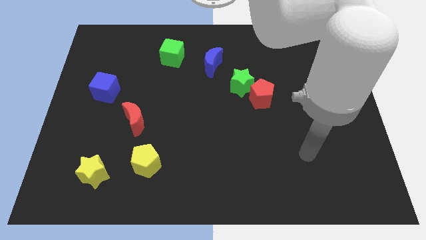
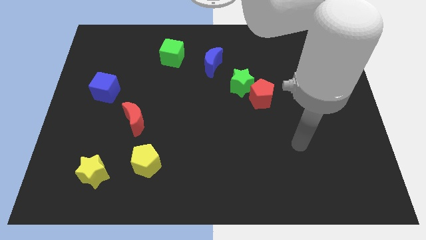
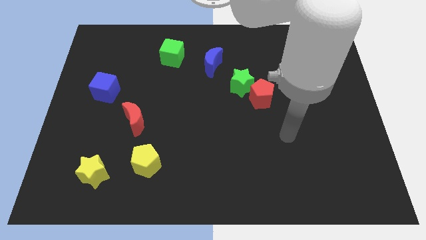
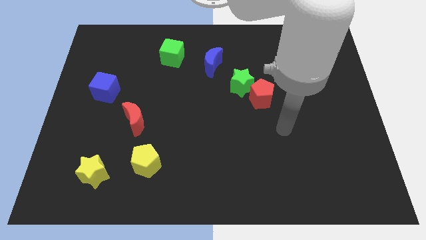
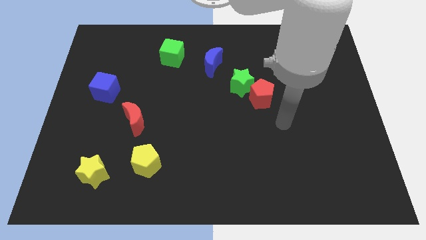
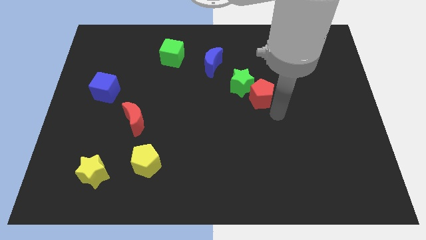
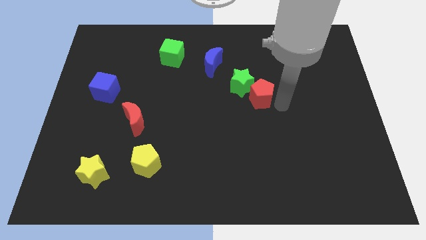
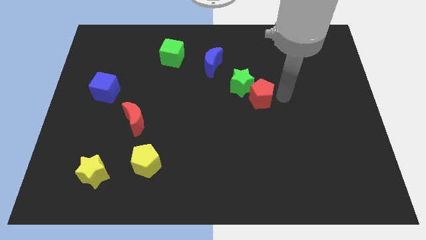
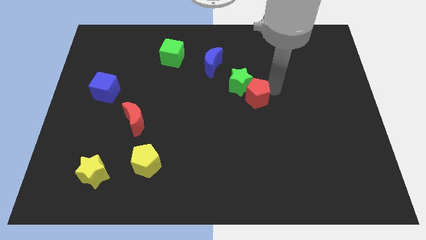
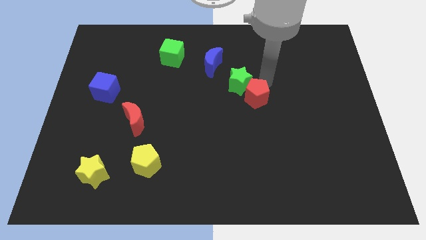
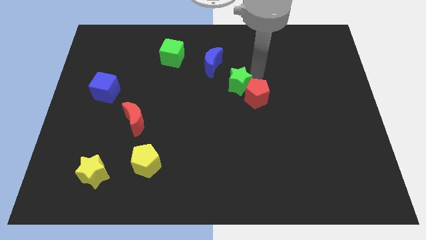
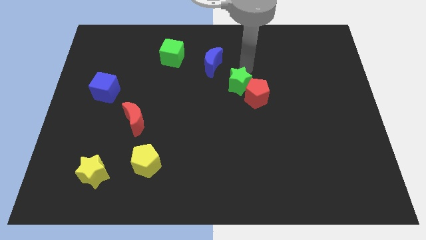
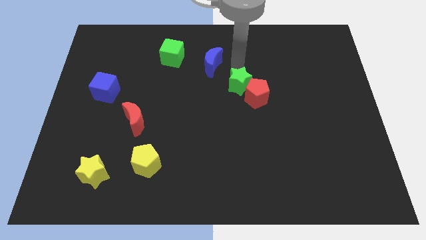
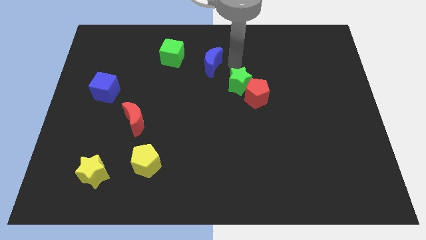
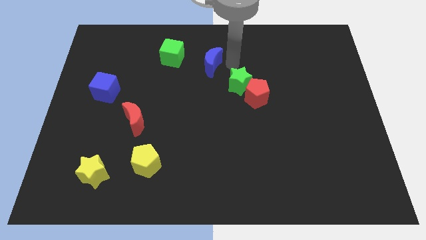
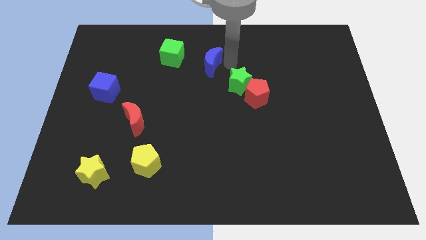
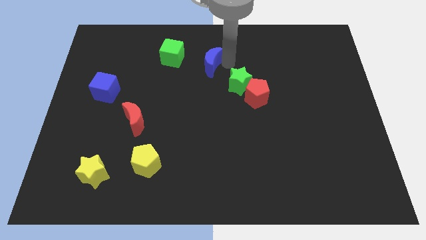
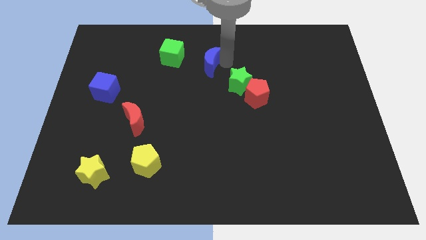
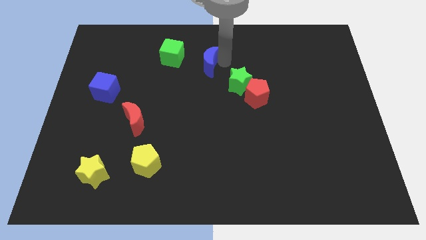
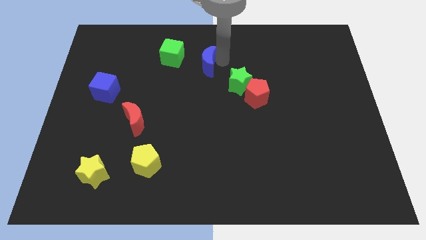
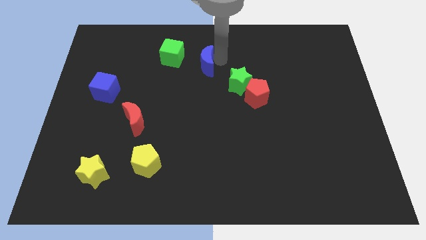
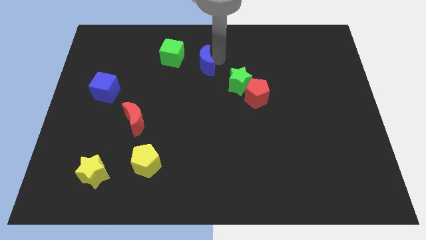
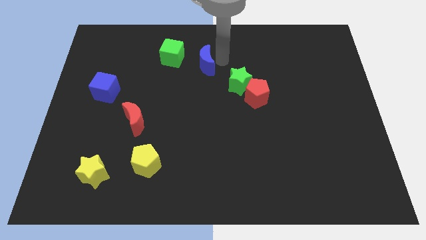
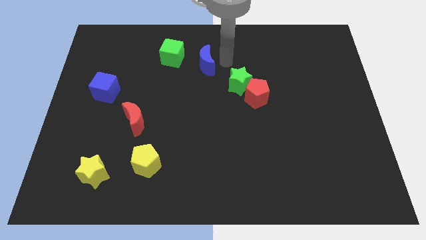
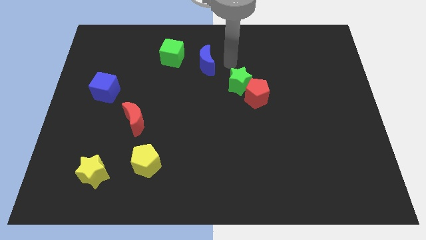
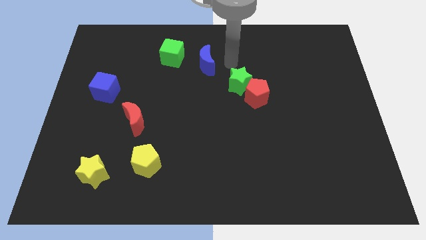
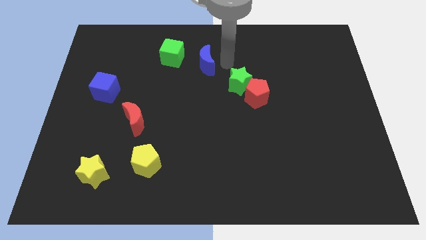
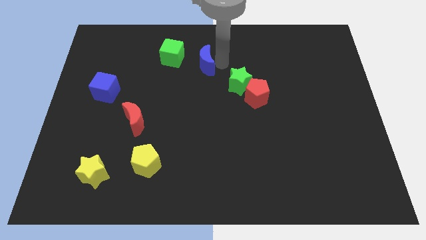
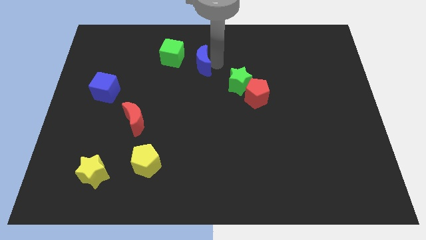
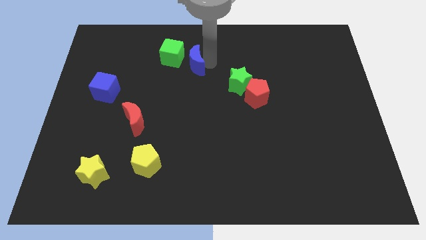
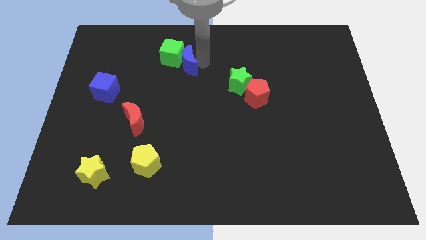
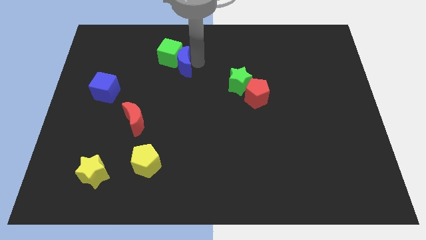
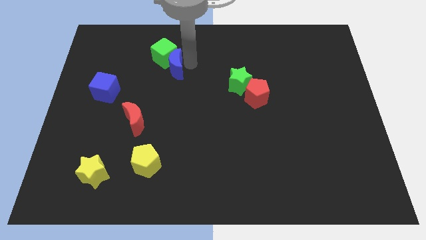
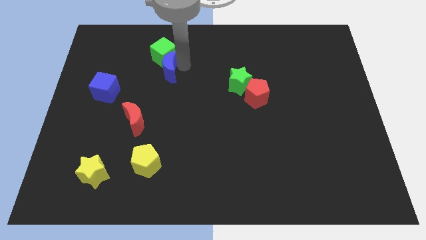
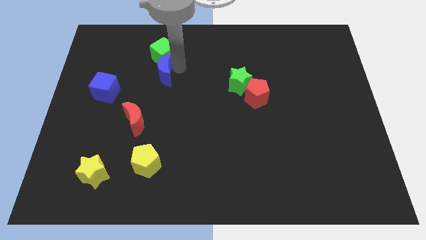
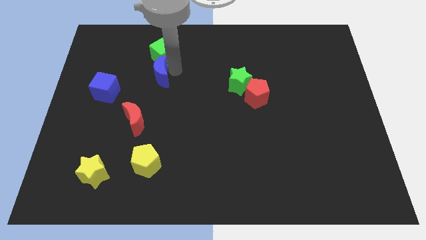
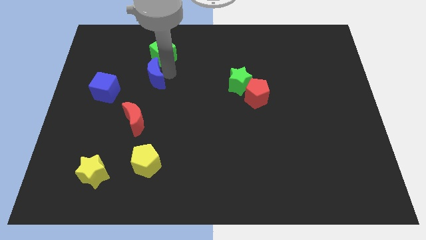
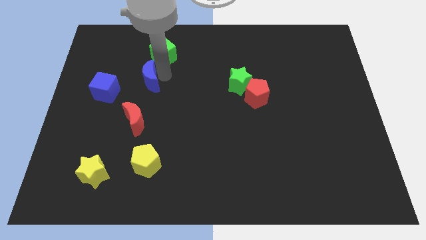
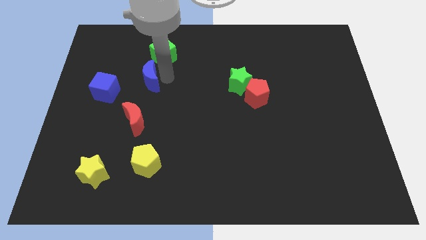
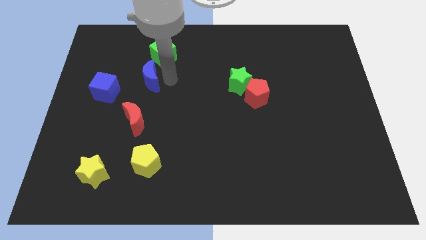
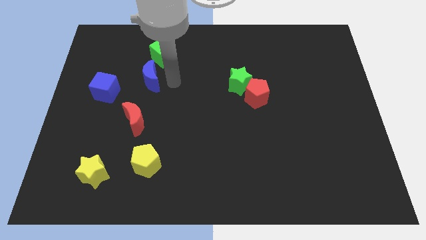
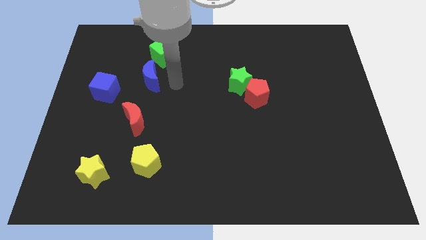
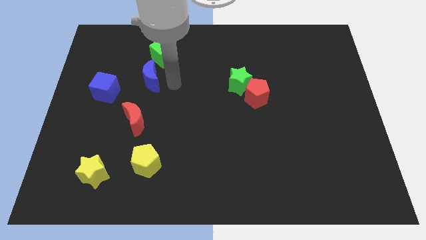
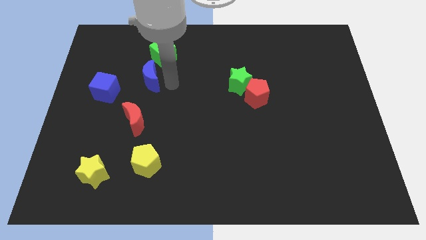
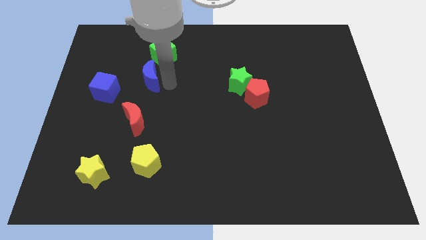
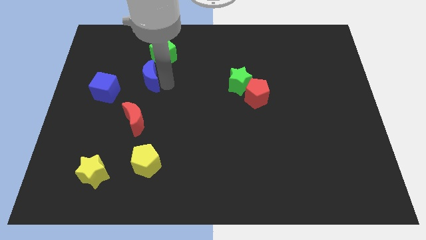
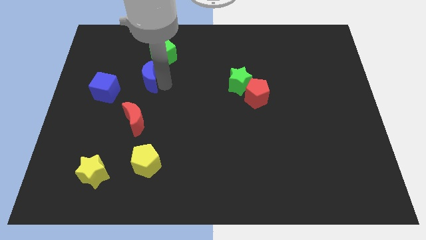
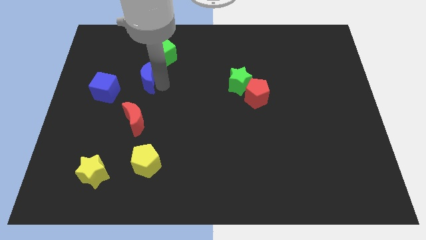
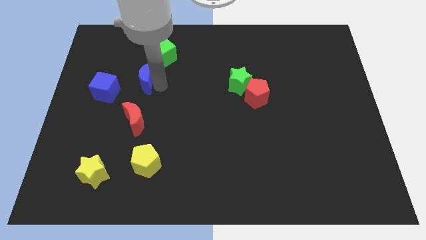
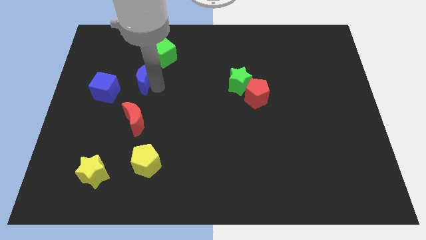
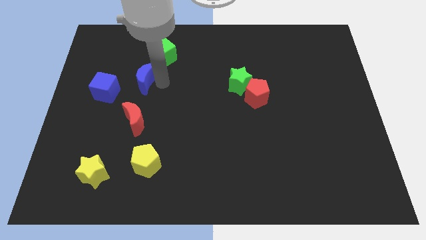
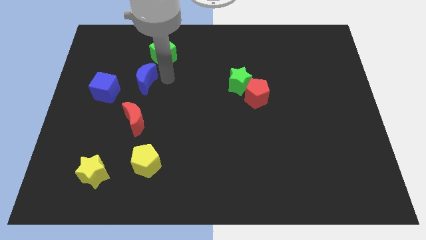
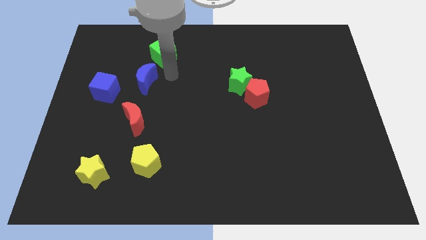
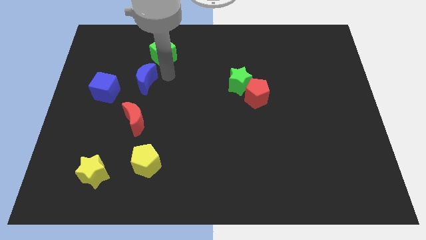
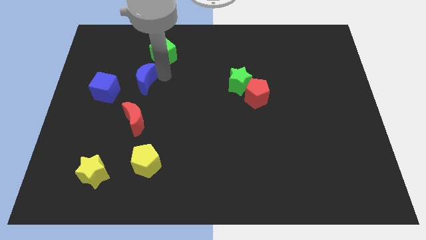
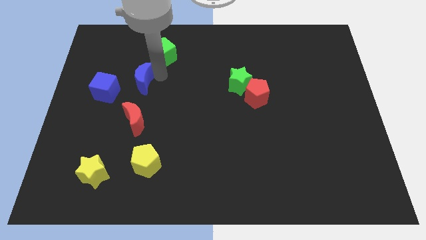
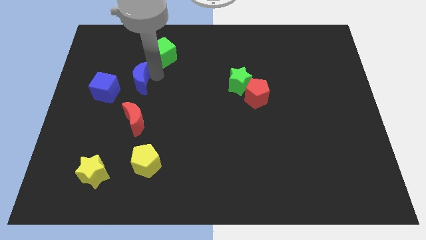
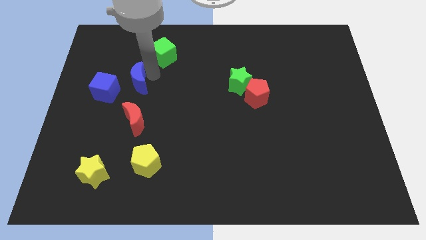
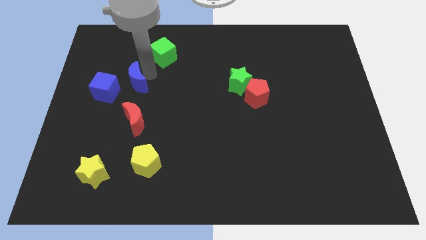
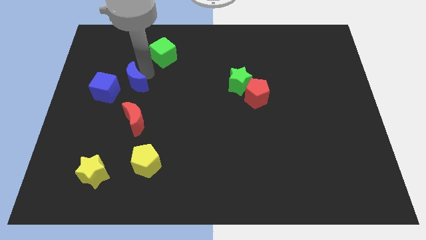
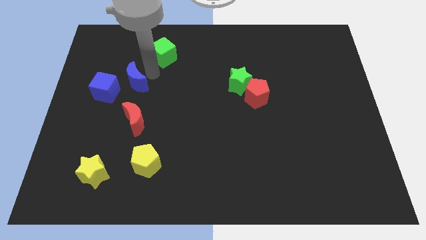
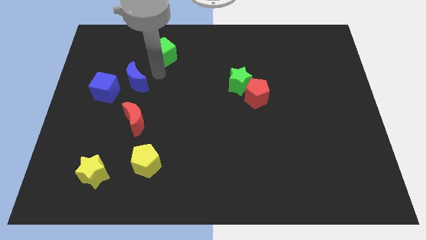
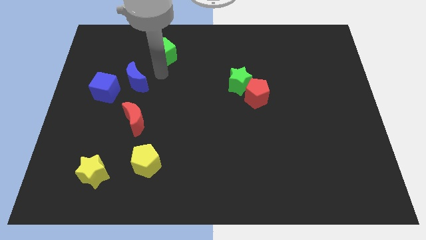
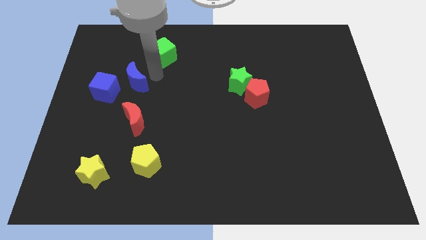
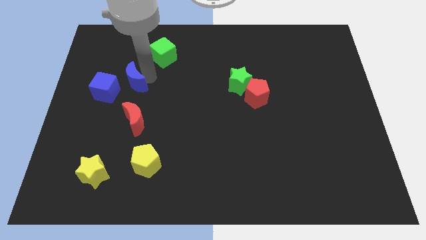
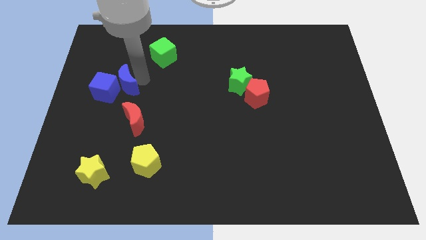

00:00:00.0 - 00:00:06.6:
put the blue moon next to the blue cube
